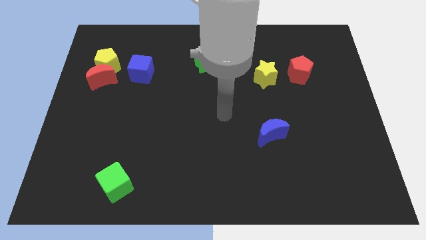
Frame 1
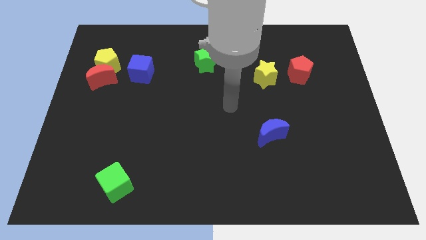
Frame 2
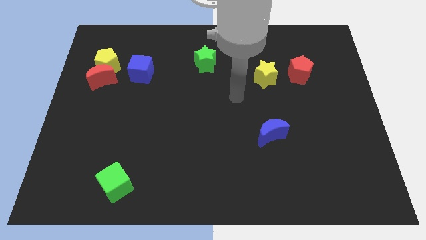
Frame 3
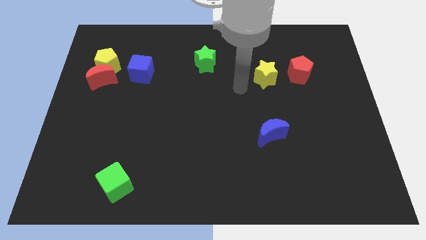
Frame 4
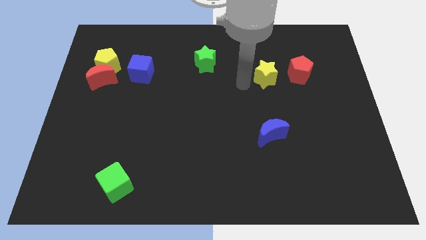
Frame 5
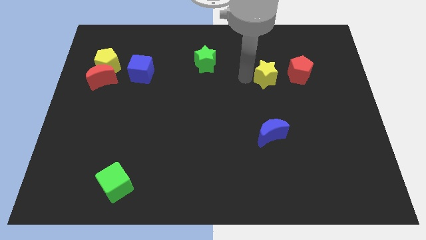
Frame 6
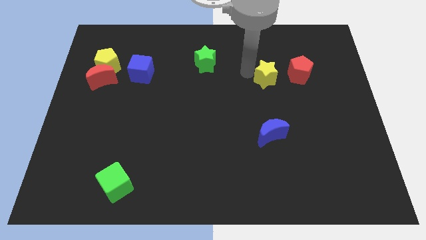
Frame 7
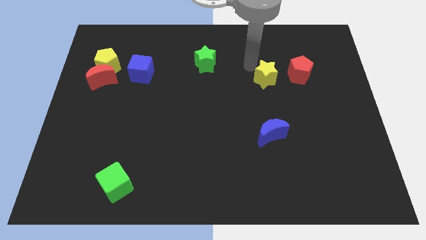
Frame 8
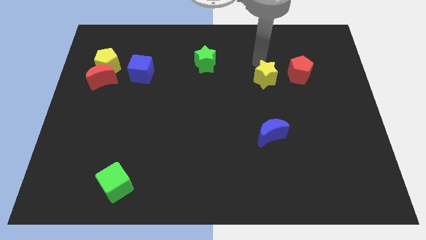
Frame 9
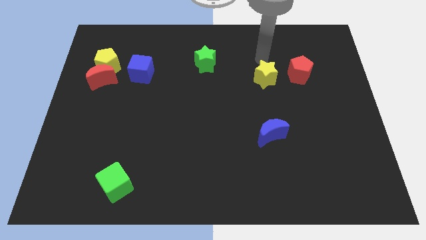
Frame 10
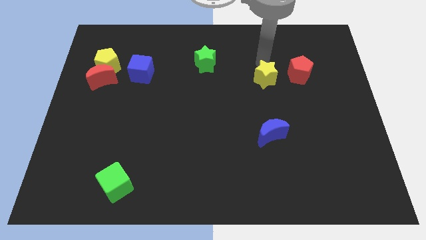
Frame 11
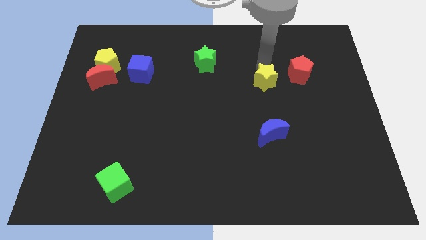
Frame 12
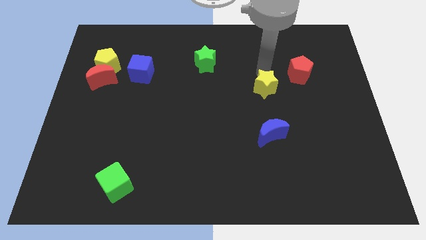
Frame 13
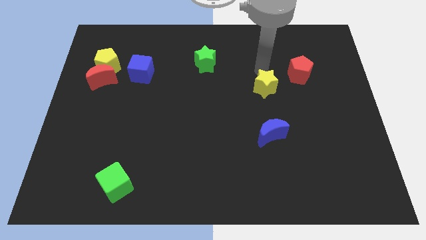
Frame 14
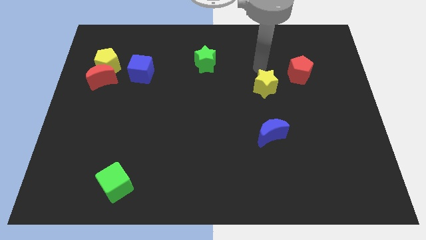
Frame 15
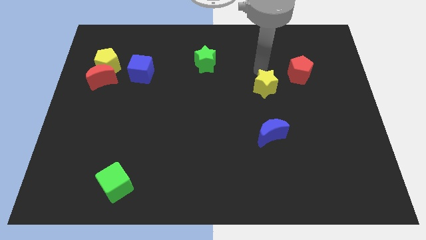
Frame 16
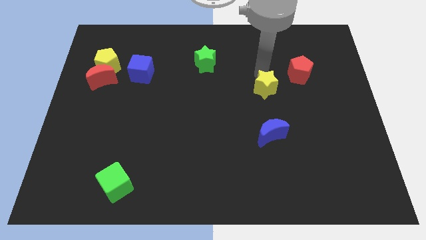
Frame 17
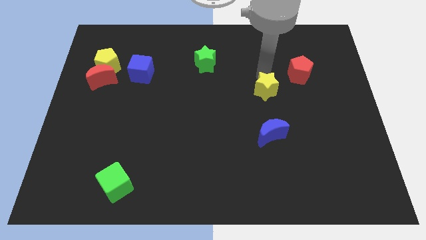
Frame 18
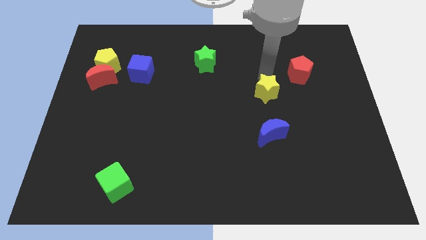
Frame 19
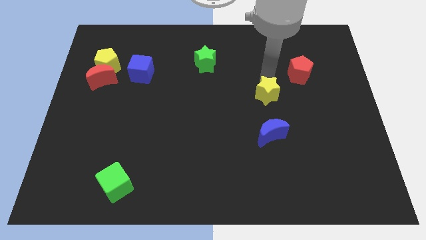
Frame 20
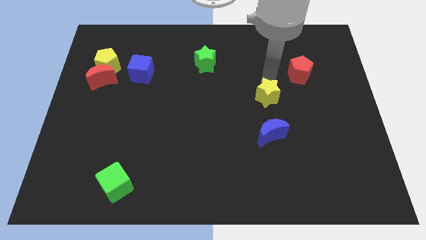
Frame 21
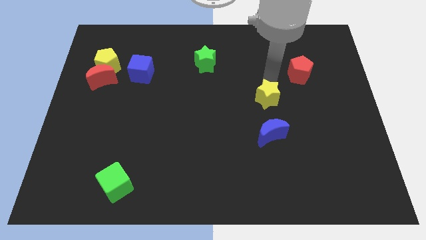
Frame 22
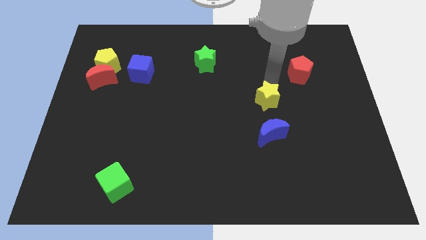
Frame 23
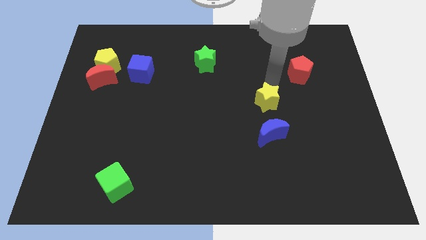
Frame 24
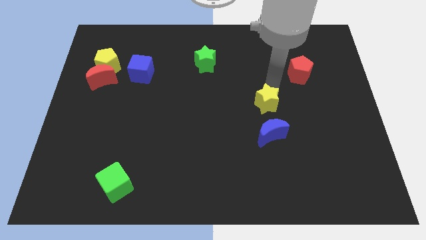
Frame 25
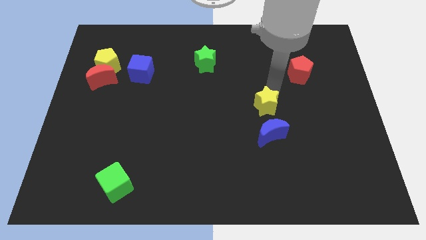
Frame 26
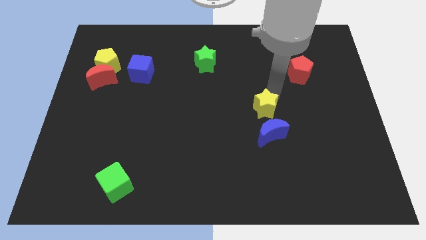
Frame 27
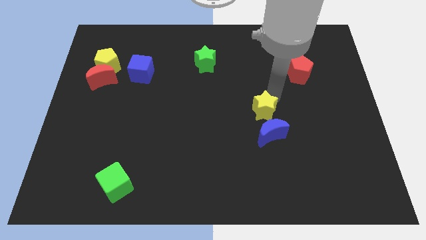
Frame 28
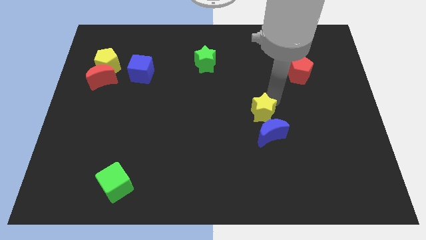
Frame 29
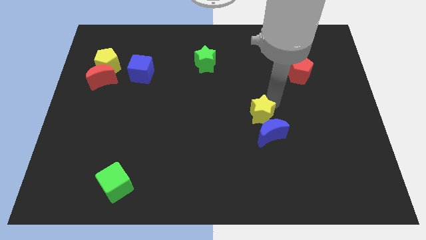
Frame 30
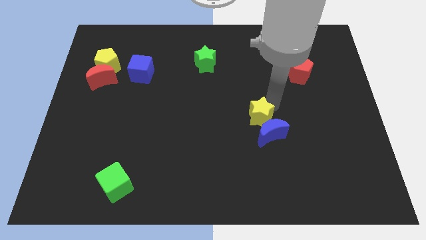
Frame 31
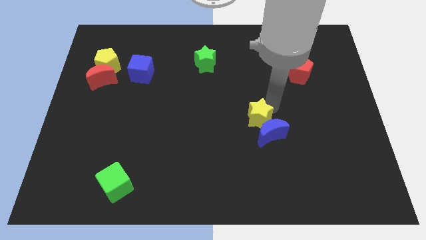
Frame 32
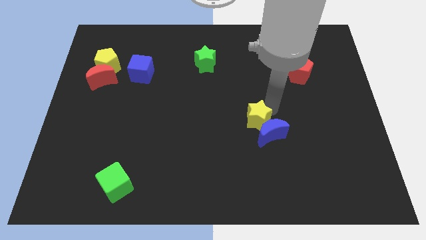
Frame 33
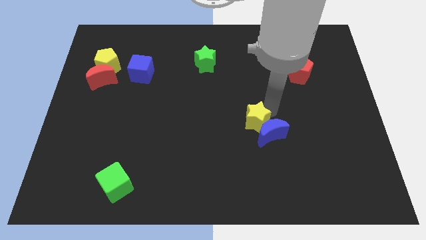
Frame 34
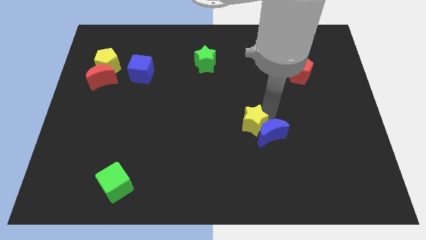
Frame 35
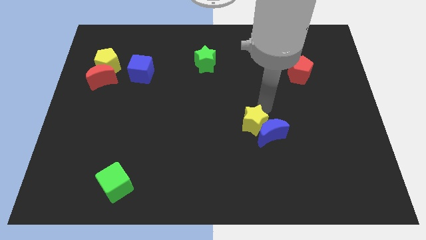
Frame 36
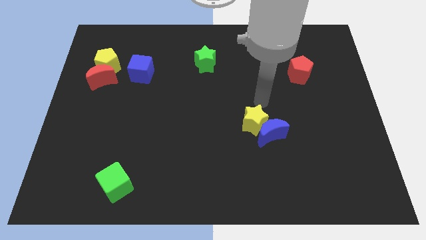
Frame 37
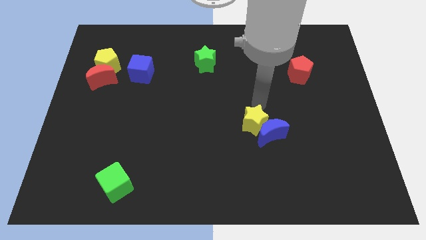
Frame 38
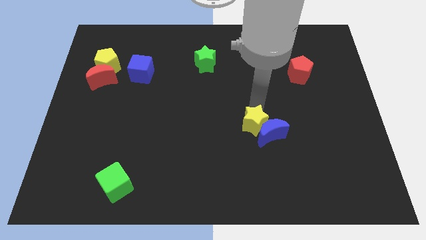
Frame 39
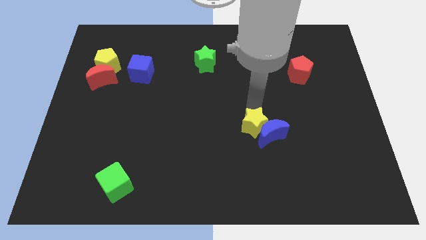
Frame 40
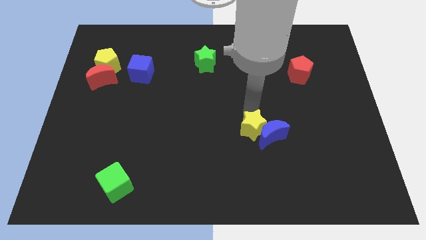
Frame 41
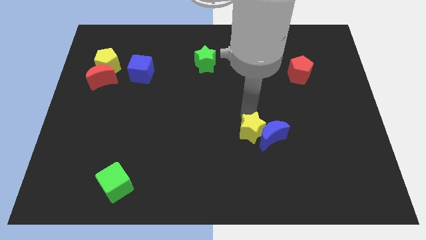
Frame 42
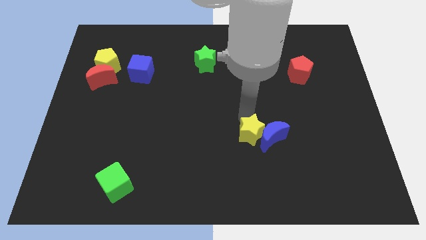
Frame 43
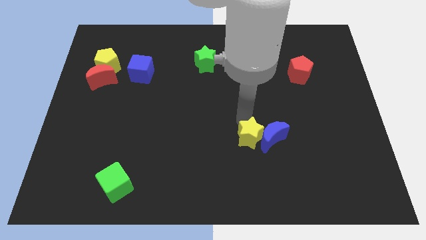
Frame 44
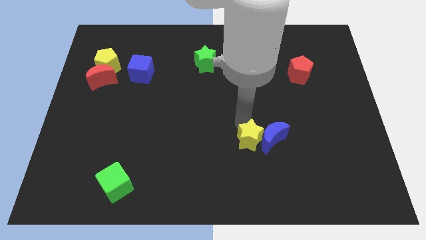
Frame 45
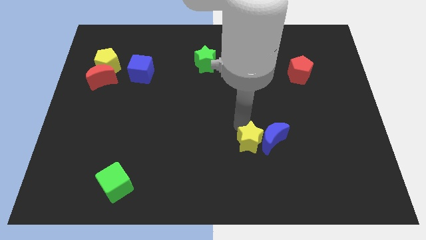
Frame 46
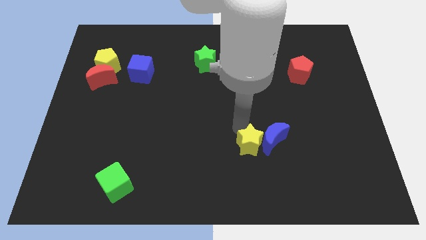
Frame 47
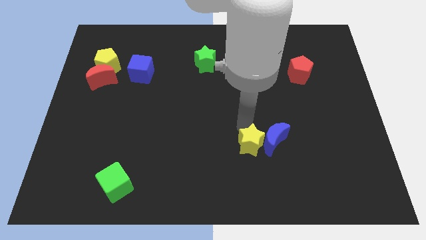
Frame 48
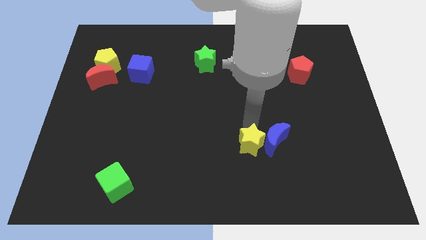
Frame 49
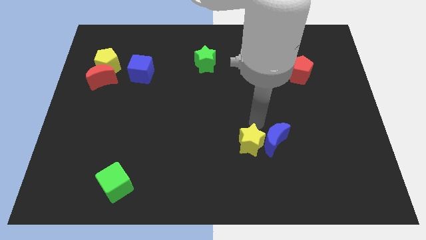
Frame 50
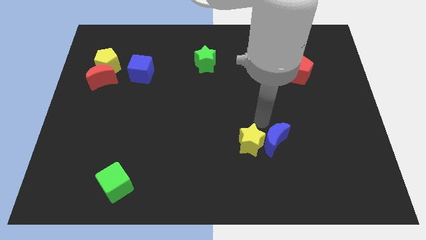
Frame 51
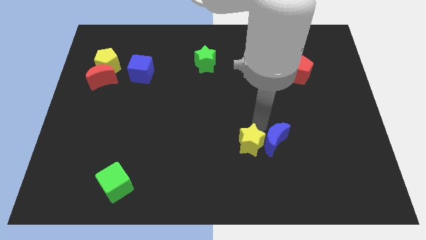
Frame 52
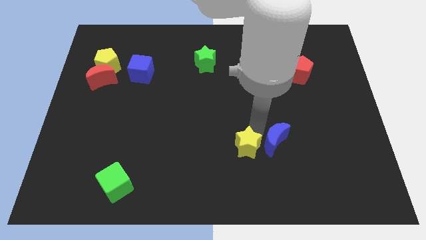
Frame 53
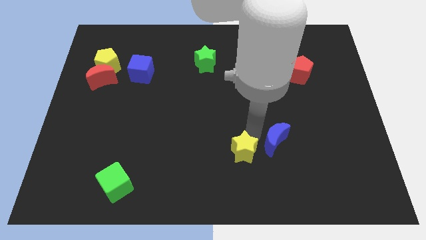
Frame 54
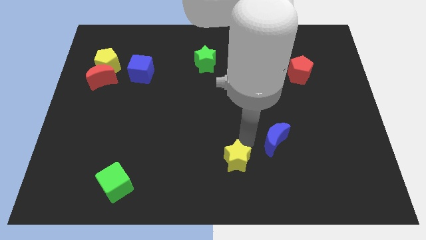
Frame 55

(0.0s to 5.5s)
move the yellow star to the bottom

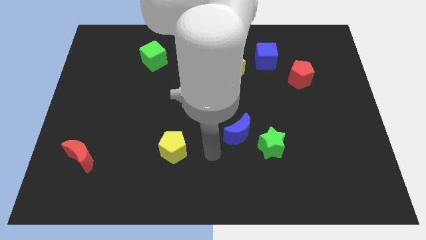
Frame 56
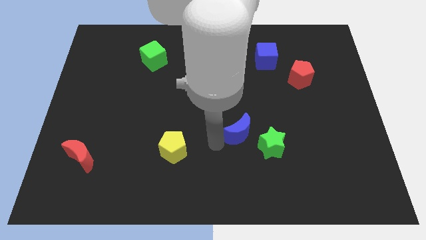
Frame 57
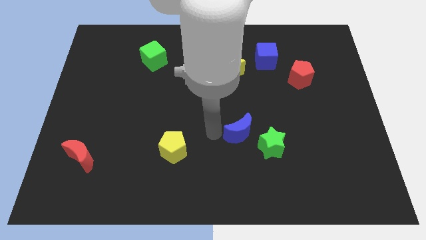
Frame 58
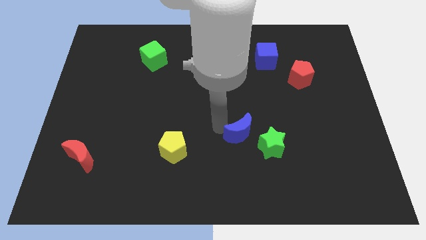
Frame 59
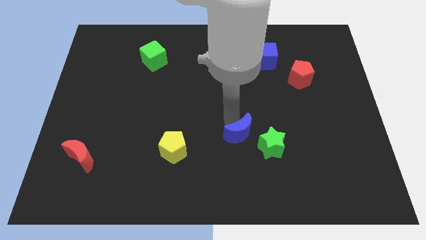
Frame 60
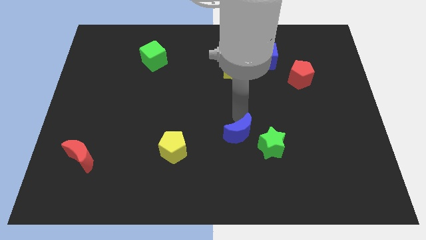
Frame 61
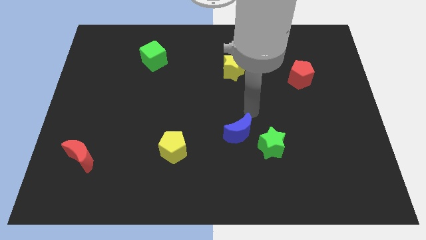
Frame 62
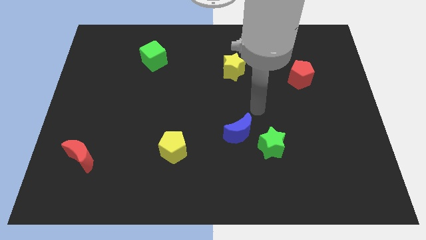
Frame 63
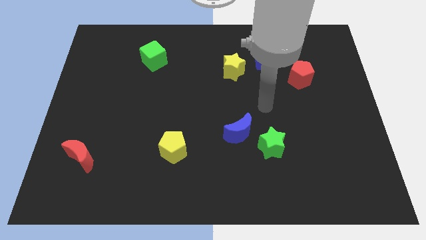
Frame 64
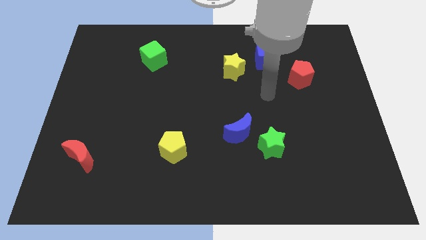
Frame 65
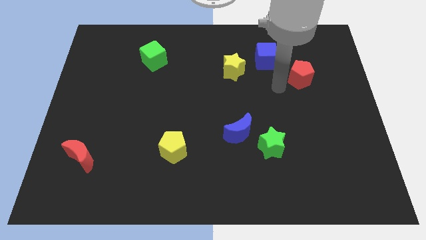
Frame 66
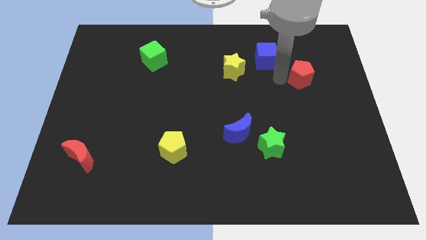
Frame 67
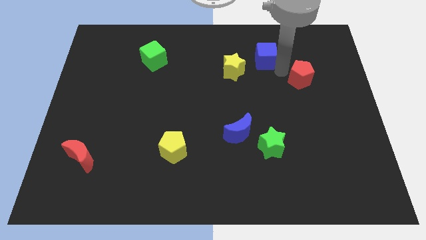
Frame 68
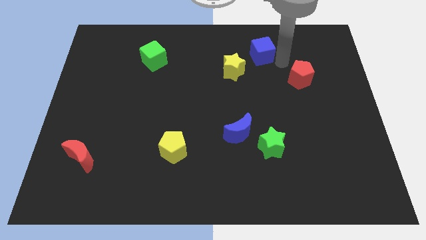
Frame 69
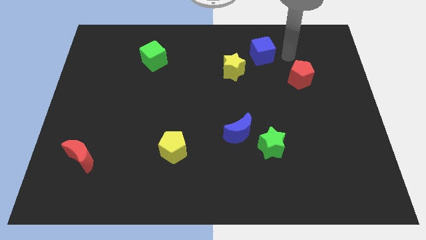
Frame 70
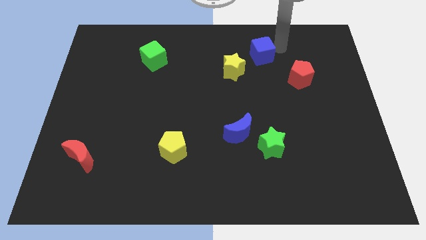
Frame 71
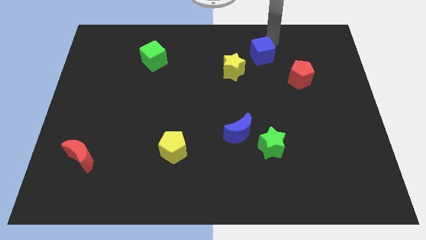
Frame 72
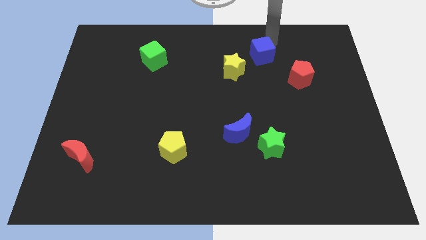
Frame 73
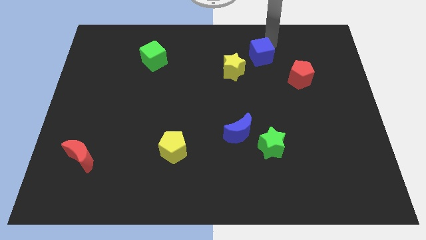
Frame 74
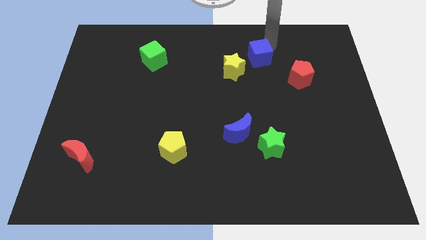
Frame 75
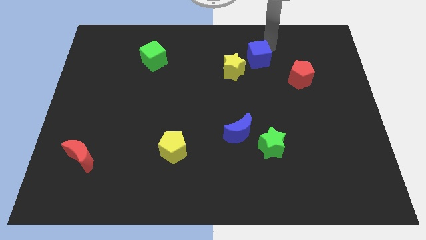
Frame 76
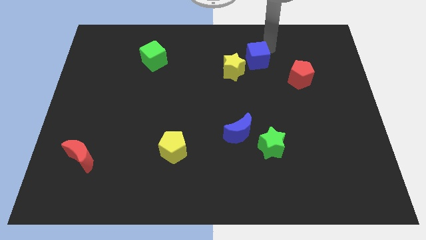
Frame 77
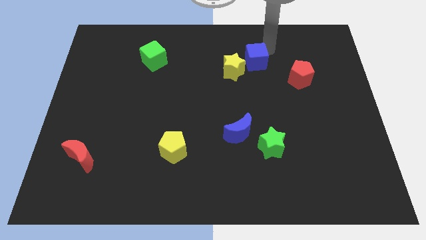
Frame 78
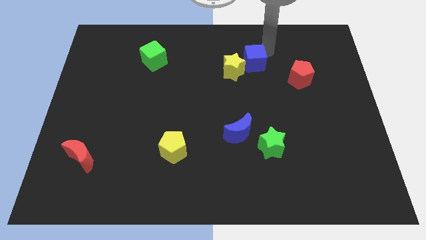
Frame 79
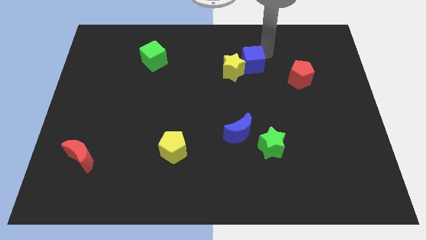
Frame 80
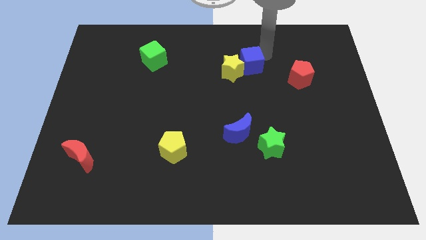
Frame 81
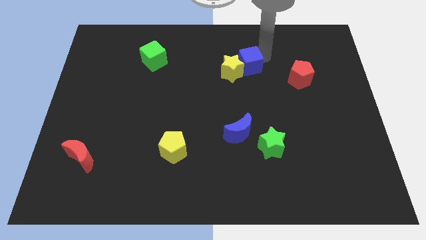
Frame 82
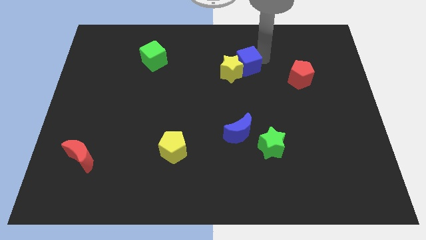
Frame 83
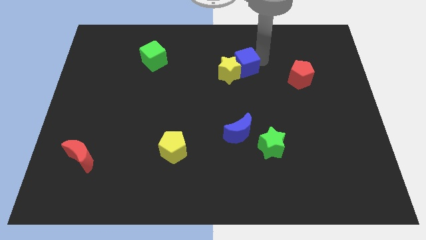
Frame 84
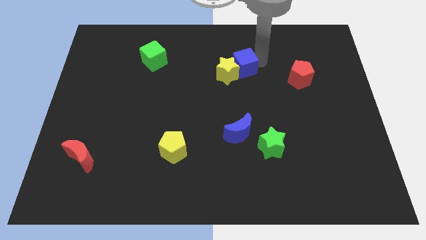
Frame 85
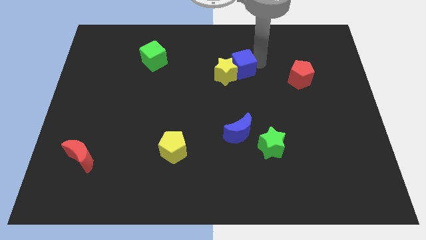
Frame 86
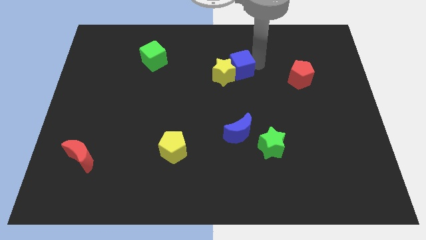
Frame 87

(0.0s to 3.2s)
slide the blue cube to the middle
